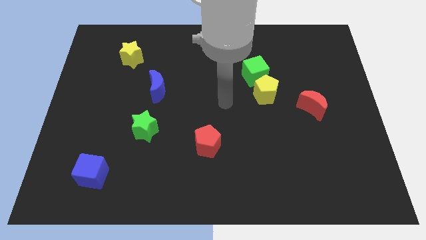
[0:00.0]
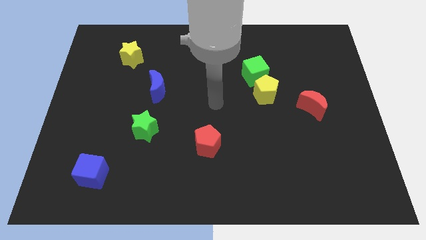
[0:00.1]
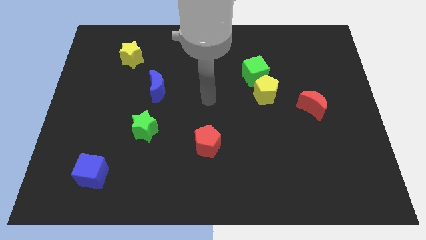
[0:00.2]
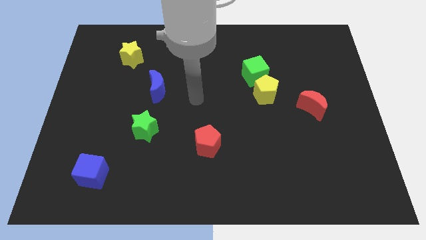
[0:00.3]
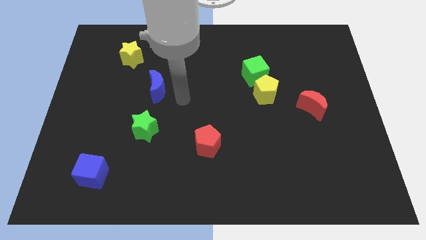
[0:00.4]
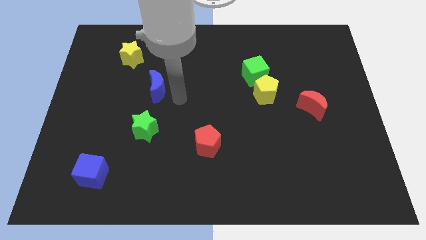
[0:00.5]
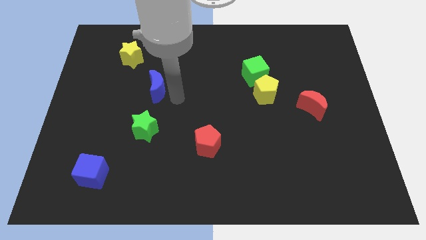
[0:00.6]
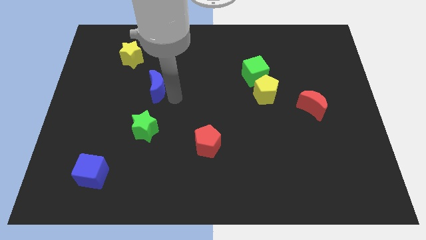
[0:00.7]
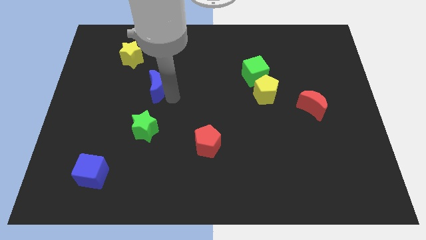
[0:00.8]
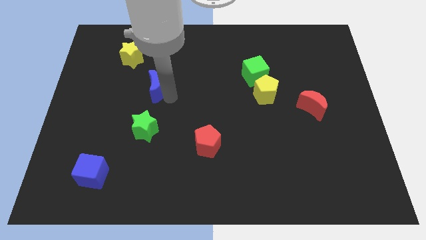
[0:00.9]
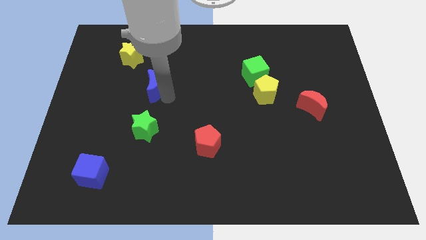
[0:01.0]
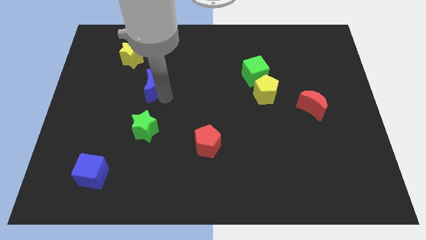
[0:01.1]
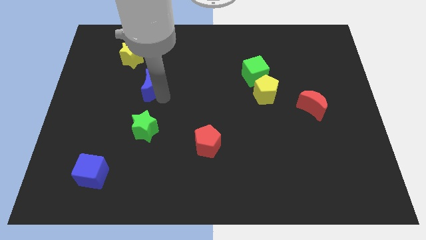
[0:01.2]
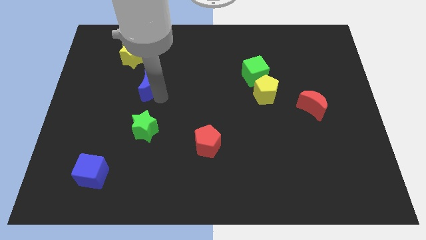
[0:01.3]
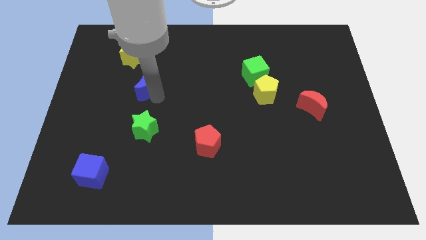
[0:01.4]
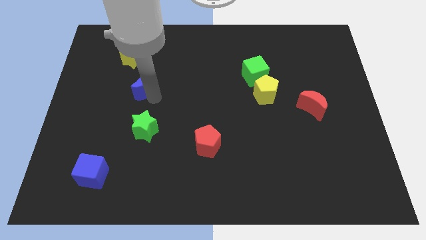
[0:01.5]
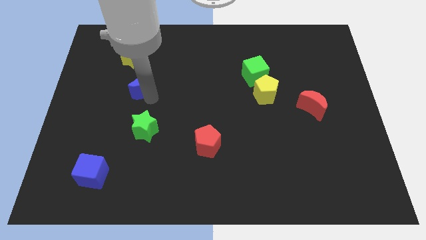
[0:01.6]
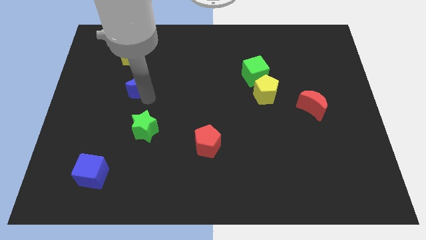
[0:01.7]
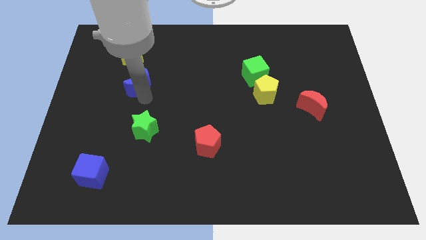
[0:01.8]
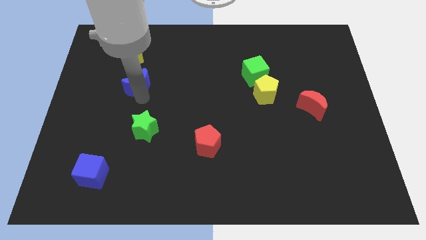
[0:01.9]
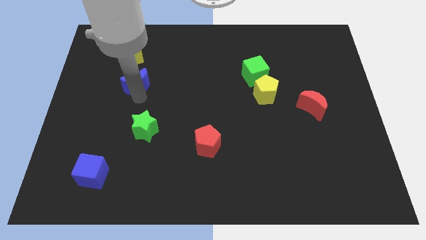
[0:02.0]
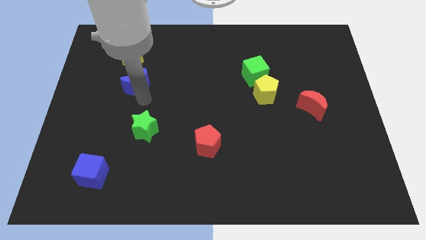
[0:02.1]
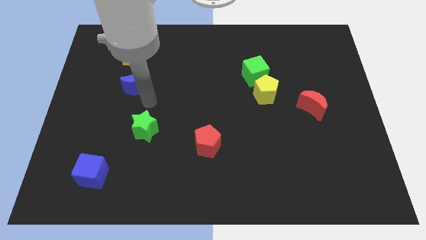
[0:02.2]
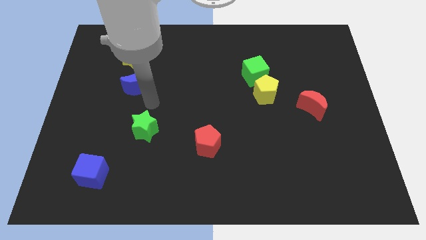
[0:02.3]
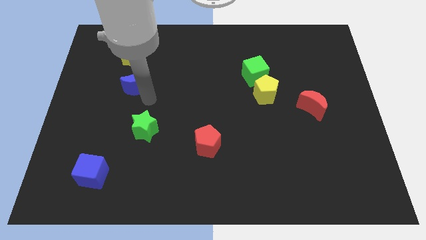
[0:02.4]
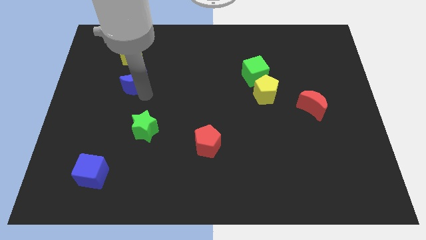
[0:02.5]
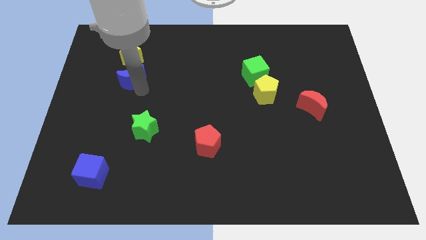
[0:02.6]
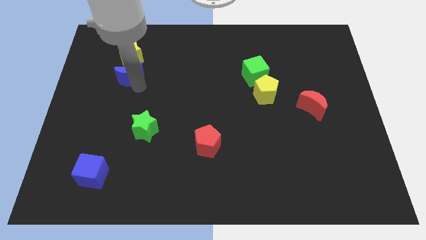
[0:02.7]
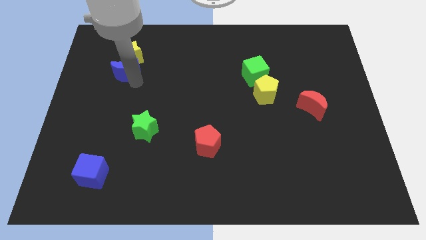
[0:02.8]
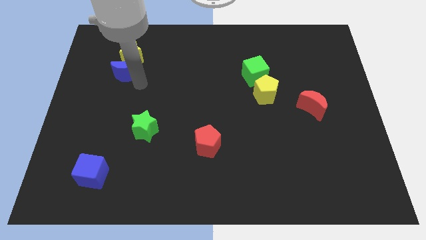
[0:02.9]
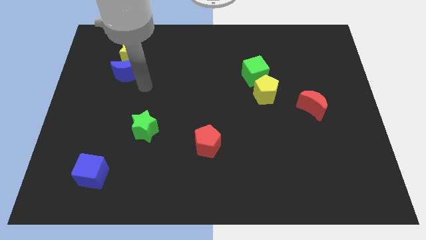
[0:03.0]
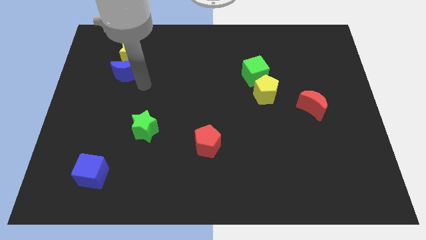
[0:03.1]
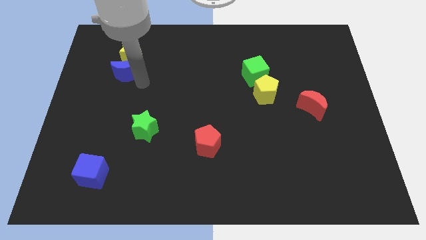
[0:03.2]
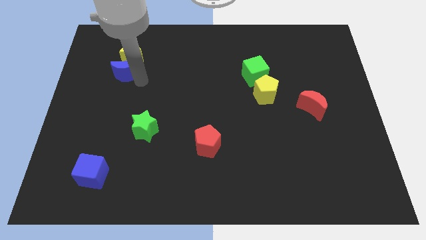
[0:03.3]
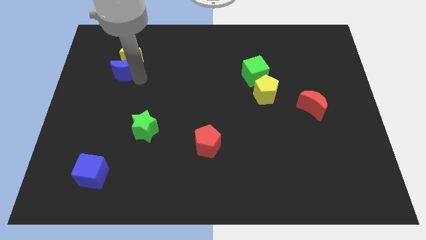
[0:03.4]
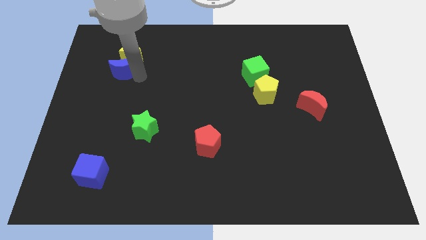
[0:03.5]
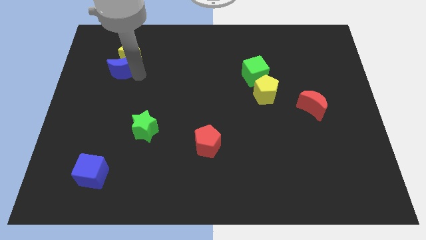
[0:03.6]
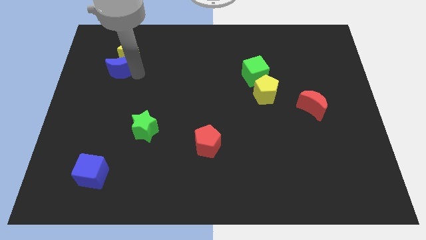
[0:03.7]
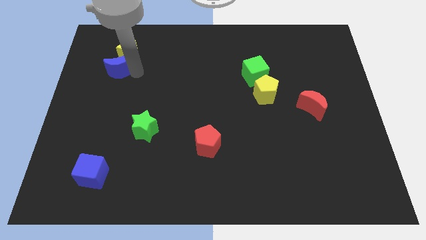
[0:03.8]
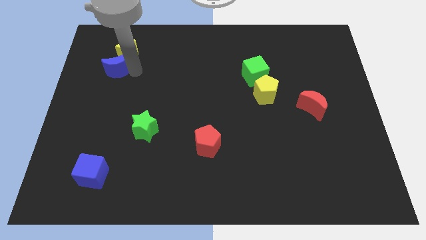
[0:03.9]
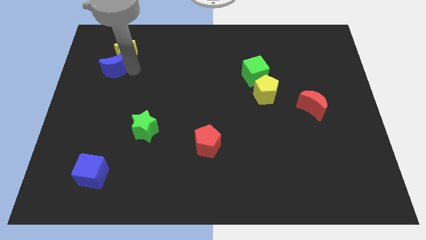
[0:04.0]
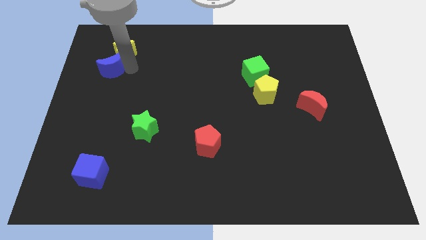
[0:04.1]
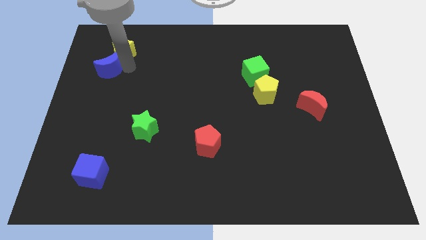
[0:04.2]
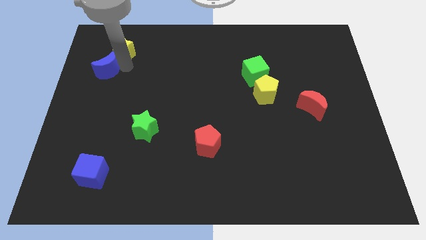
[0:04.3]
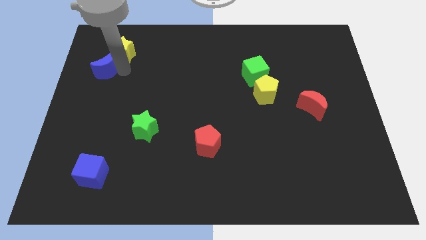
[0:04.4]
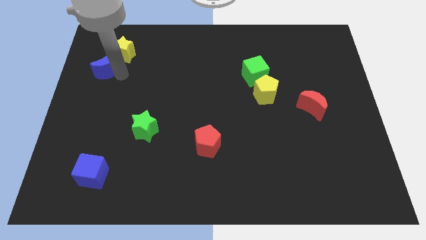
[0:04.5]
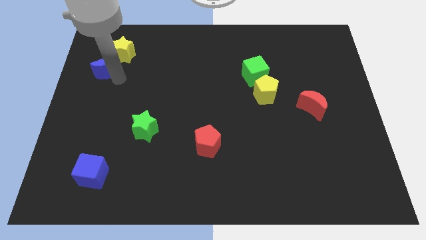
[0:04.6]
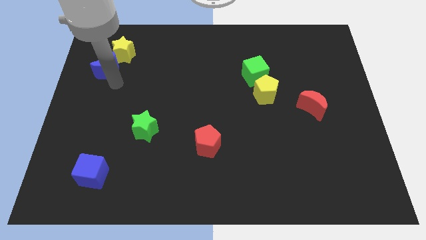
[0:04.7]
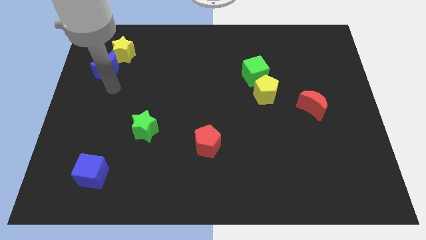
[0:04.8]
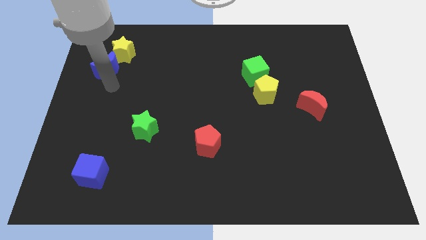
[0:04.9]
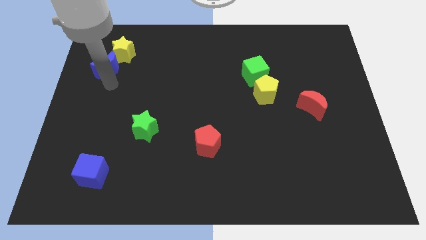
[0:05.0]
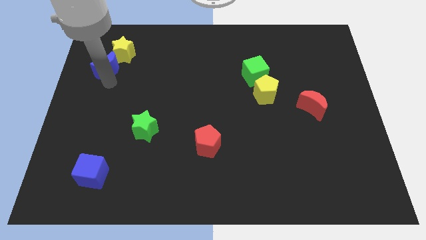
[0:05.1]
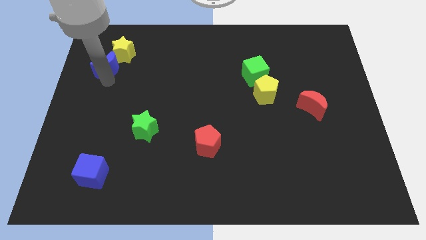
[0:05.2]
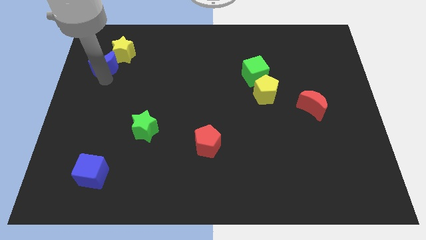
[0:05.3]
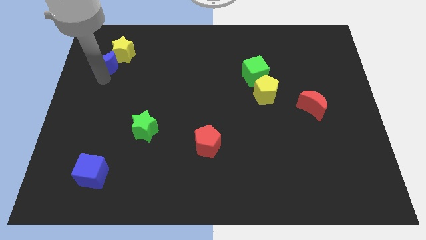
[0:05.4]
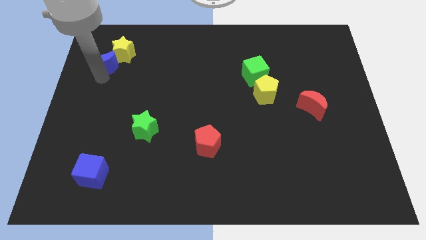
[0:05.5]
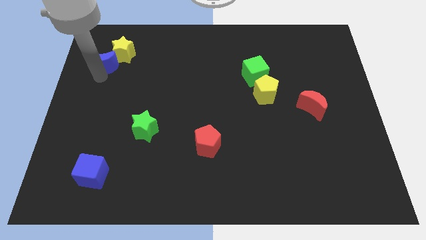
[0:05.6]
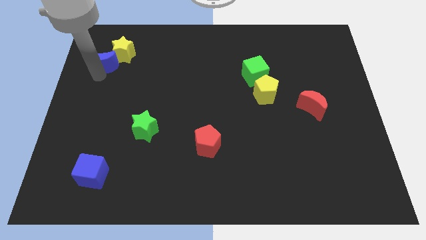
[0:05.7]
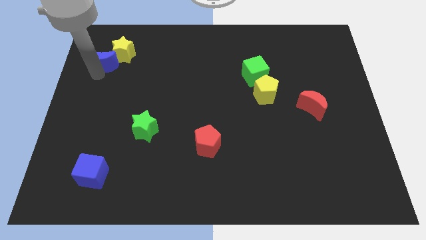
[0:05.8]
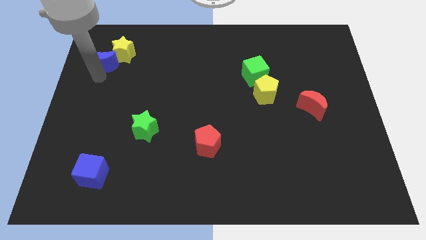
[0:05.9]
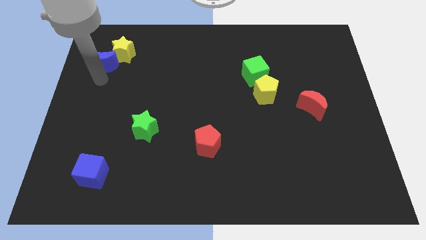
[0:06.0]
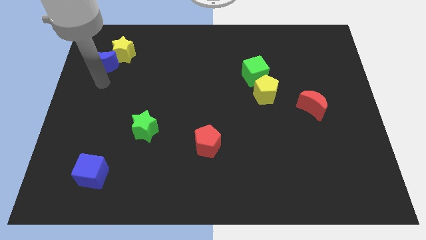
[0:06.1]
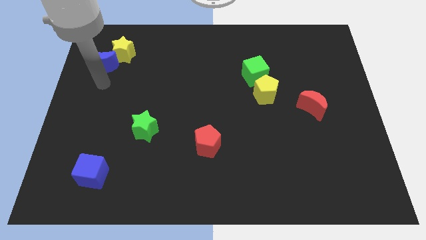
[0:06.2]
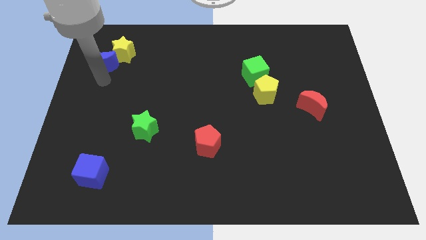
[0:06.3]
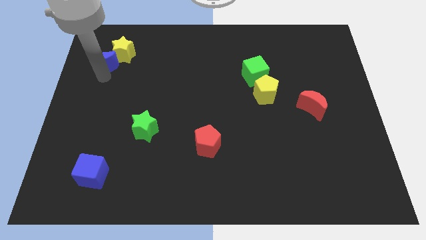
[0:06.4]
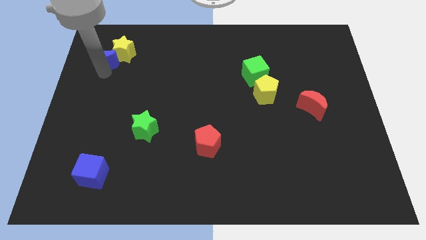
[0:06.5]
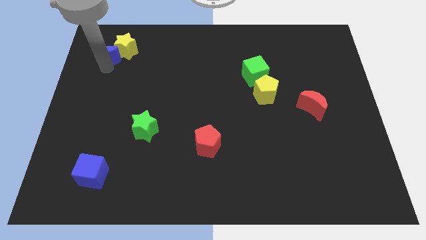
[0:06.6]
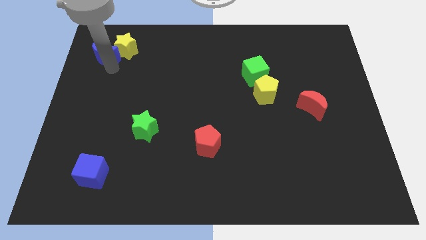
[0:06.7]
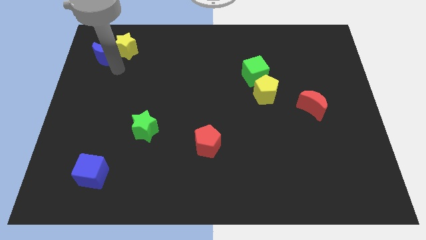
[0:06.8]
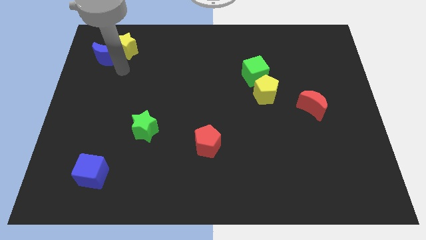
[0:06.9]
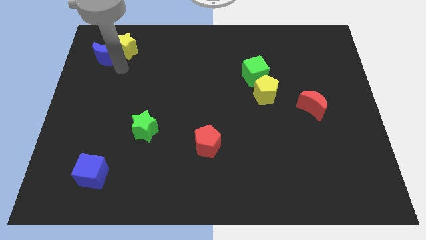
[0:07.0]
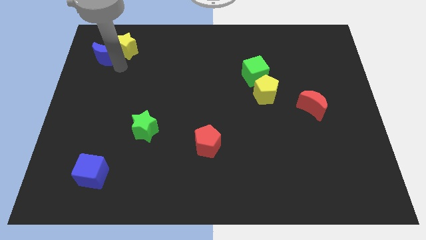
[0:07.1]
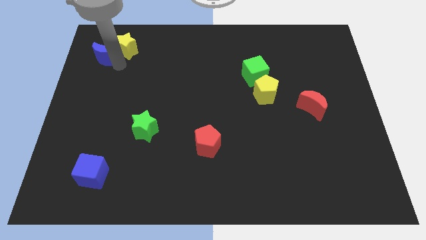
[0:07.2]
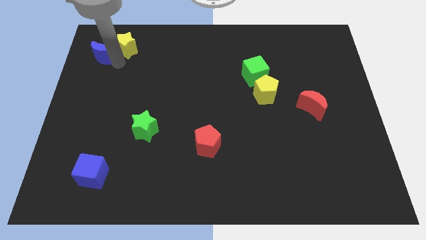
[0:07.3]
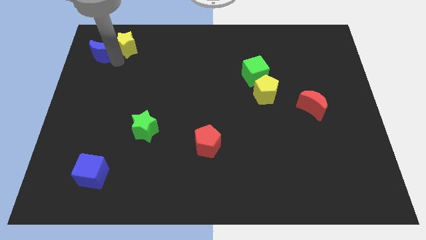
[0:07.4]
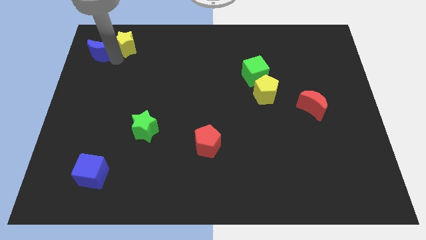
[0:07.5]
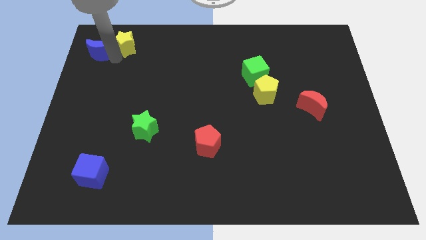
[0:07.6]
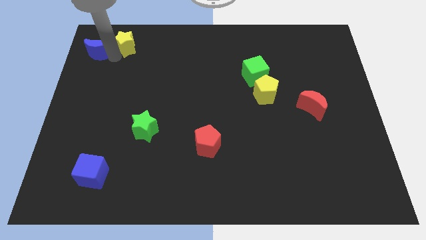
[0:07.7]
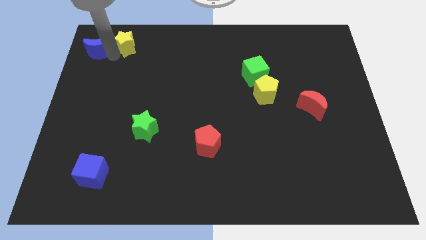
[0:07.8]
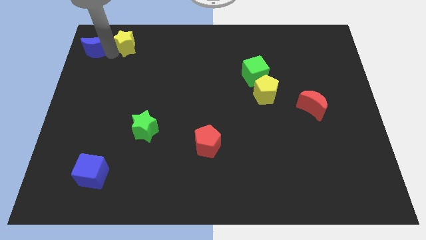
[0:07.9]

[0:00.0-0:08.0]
slide the blue moon to the upper left corner
